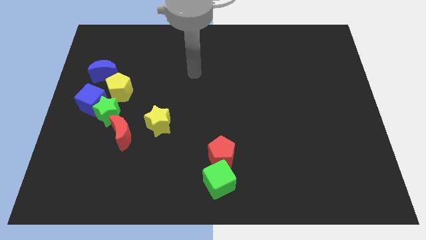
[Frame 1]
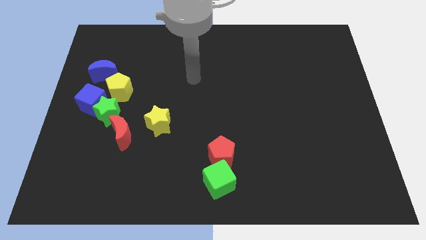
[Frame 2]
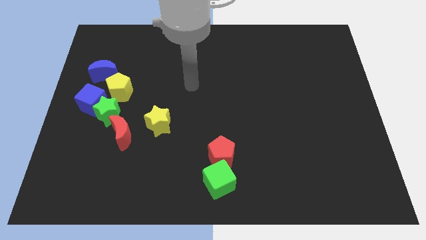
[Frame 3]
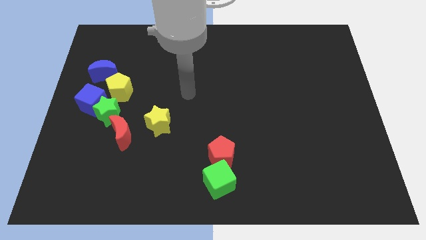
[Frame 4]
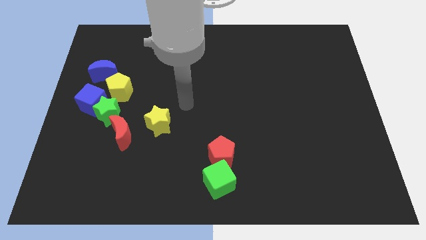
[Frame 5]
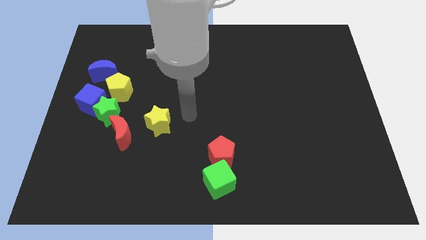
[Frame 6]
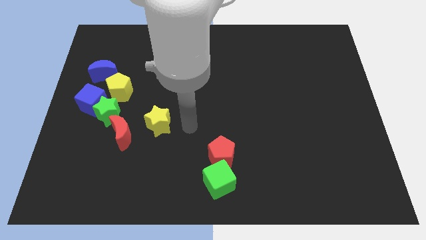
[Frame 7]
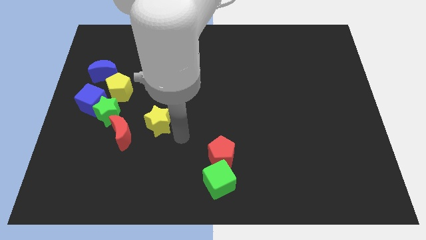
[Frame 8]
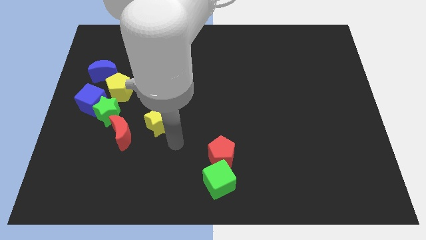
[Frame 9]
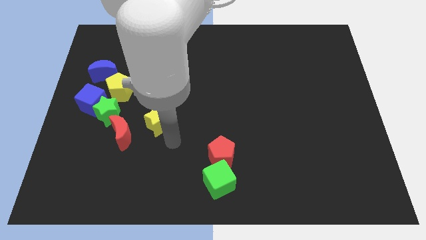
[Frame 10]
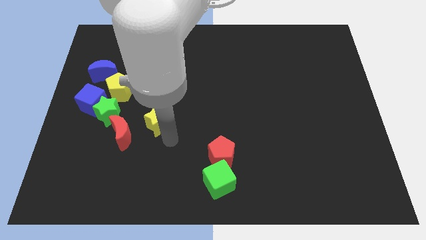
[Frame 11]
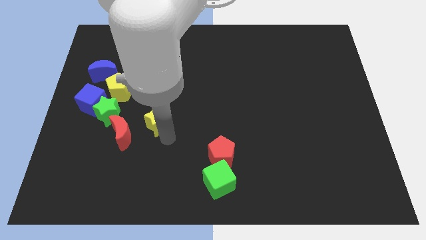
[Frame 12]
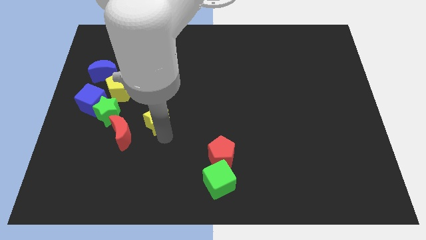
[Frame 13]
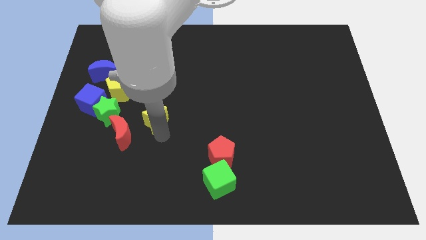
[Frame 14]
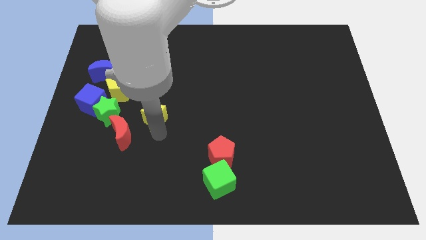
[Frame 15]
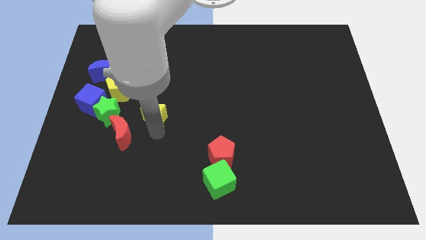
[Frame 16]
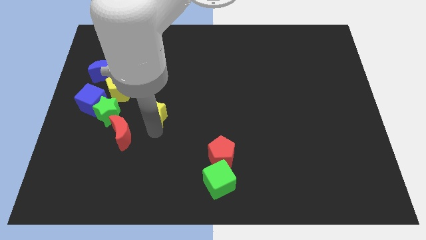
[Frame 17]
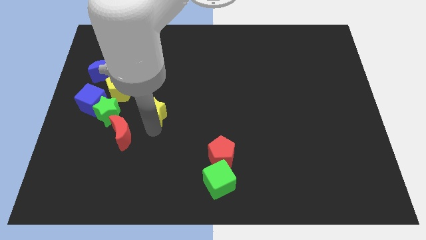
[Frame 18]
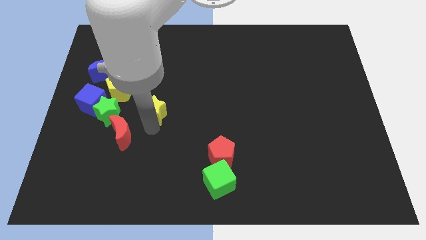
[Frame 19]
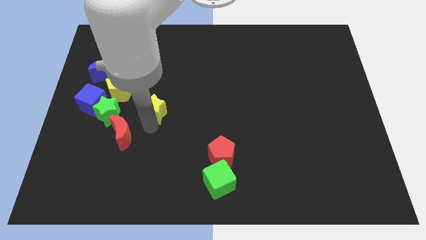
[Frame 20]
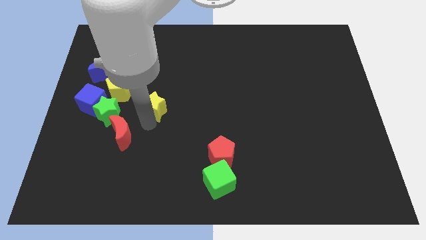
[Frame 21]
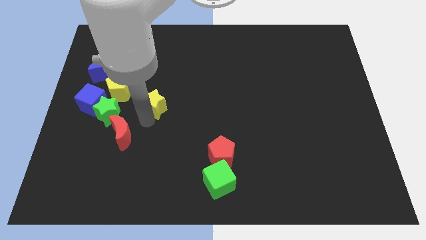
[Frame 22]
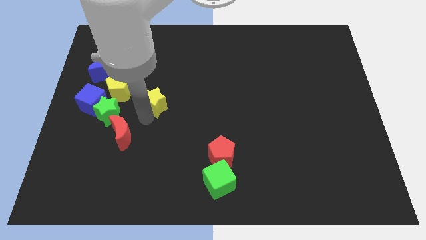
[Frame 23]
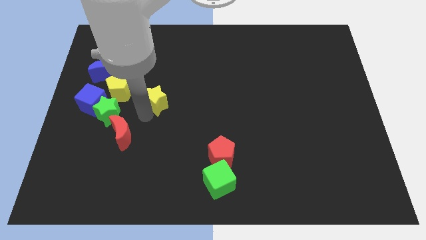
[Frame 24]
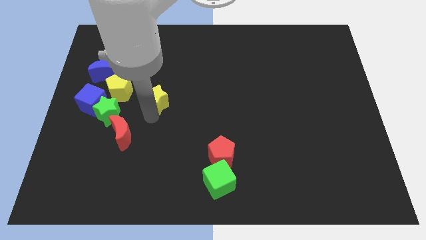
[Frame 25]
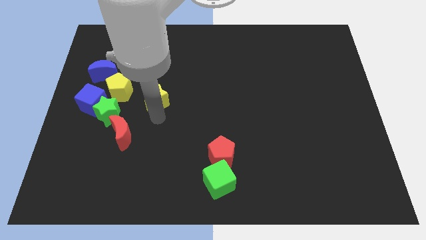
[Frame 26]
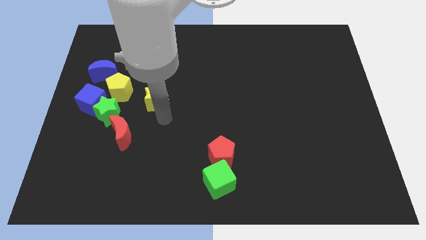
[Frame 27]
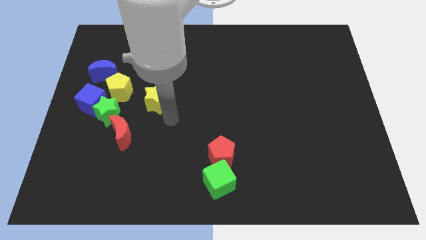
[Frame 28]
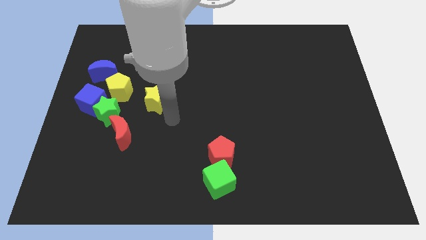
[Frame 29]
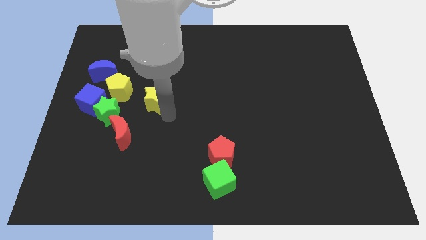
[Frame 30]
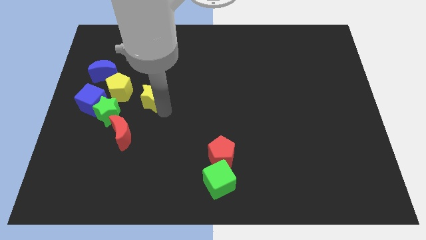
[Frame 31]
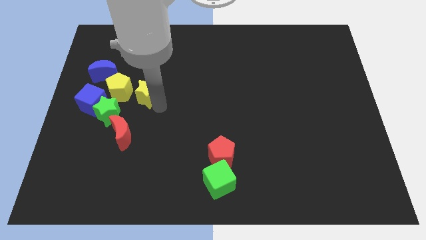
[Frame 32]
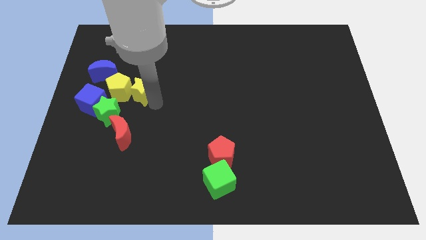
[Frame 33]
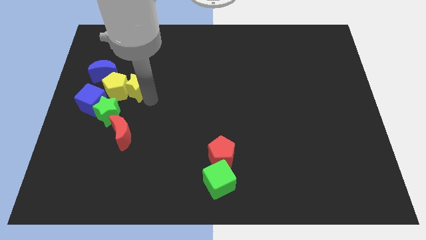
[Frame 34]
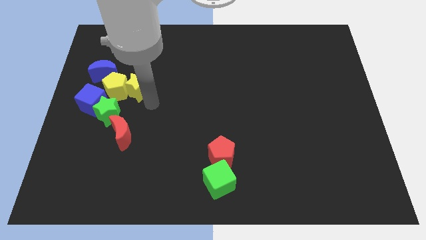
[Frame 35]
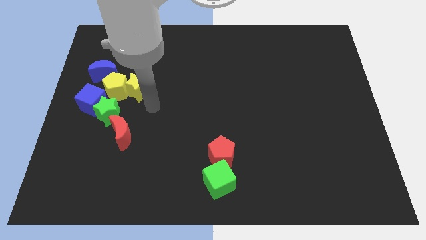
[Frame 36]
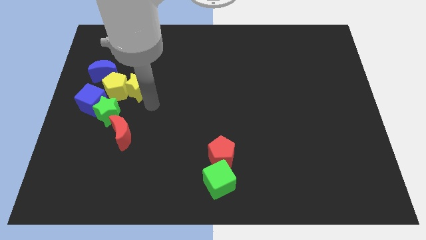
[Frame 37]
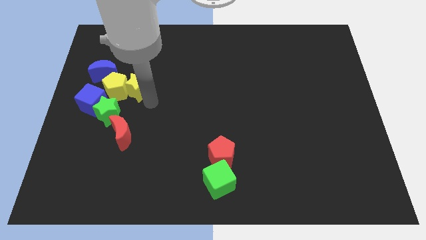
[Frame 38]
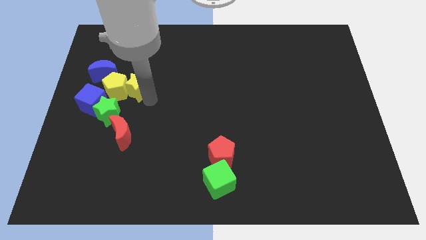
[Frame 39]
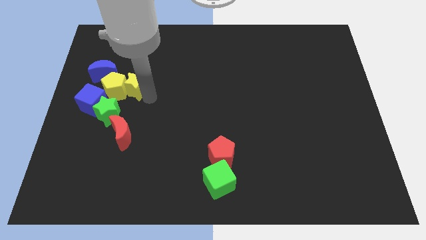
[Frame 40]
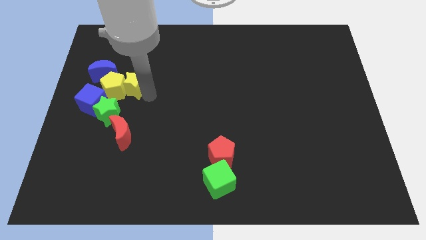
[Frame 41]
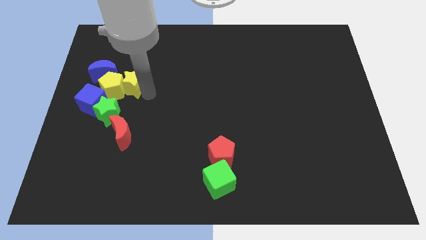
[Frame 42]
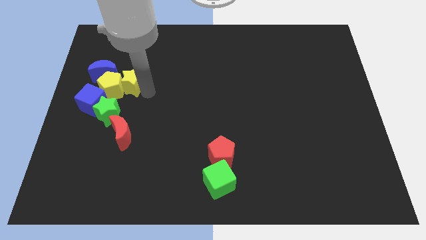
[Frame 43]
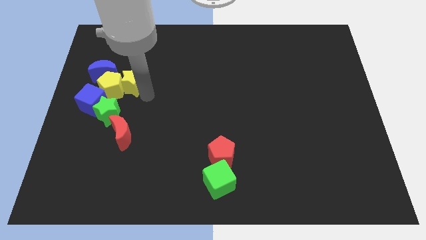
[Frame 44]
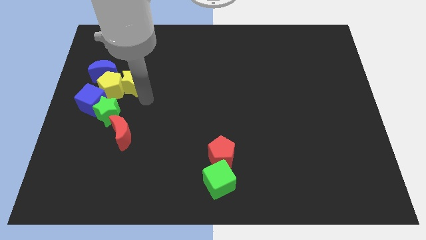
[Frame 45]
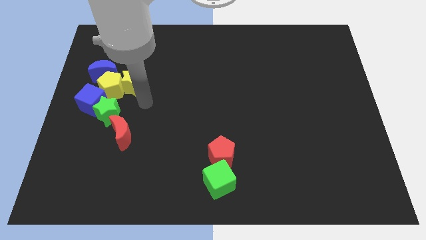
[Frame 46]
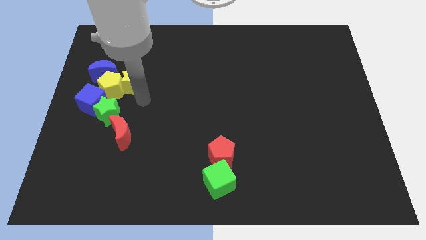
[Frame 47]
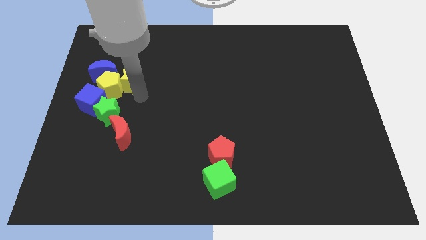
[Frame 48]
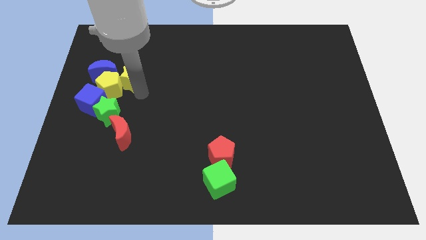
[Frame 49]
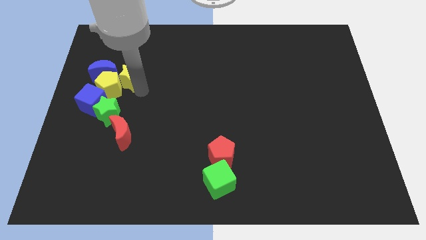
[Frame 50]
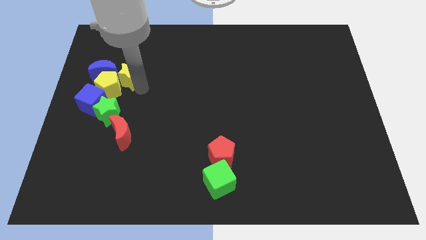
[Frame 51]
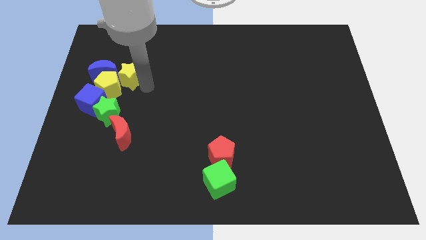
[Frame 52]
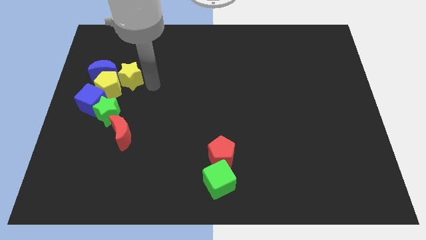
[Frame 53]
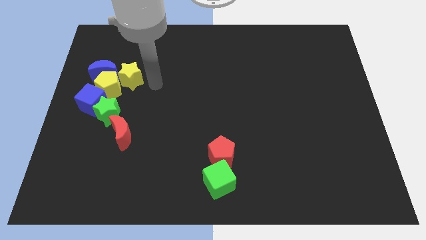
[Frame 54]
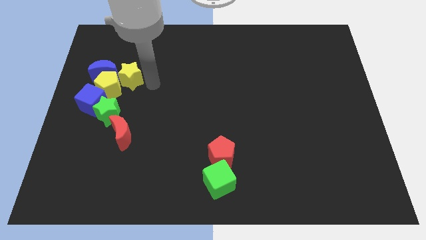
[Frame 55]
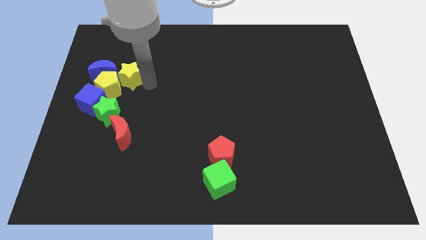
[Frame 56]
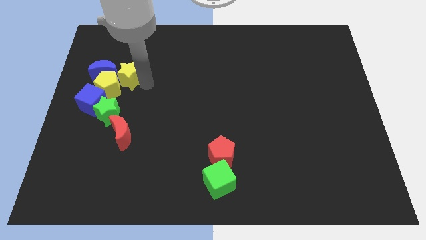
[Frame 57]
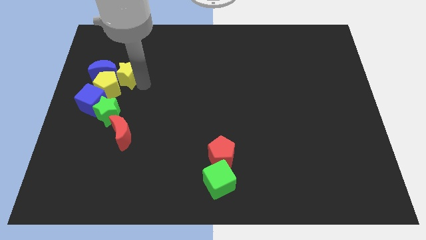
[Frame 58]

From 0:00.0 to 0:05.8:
slide the yellow star next to the blue moon

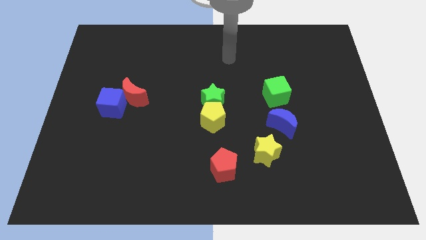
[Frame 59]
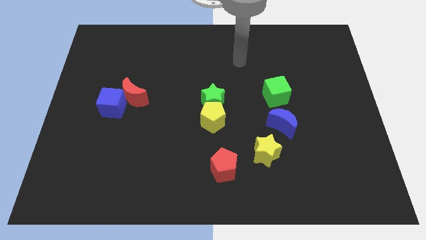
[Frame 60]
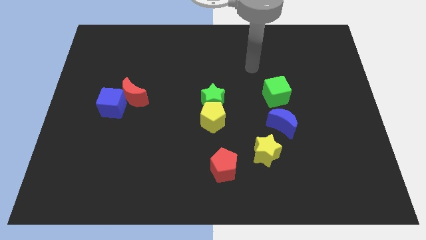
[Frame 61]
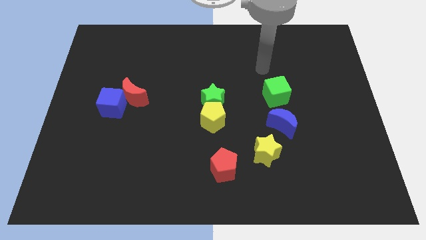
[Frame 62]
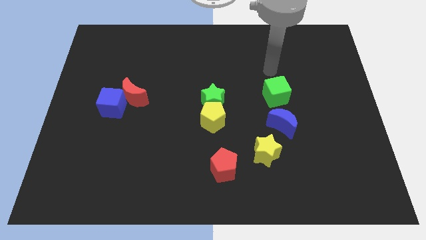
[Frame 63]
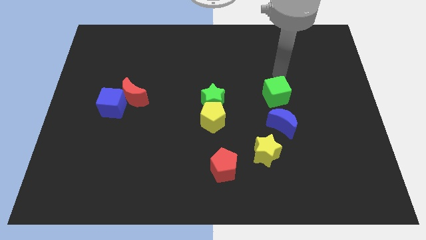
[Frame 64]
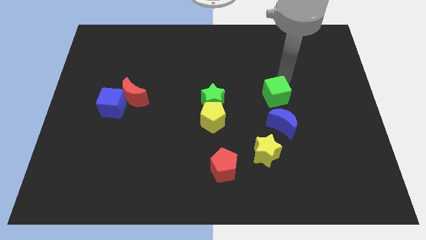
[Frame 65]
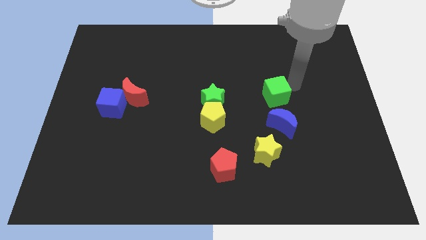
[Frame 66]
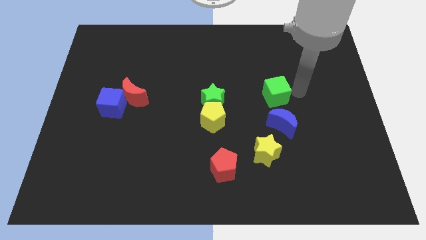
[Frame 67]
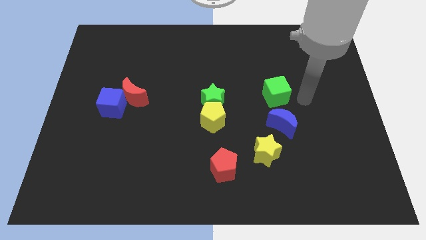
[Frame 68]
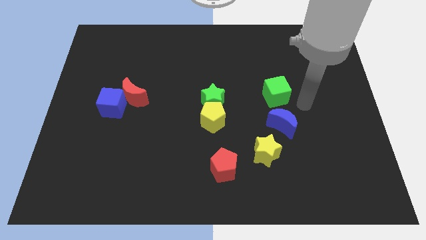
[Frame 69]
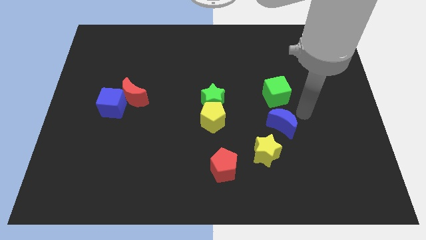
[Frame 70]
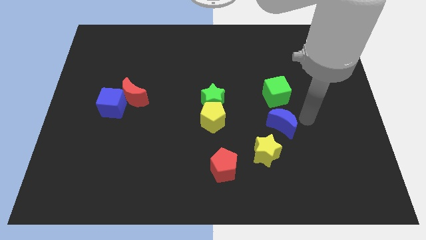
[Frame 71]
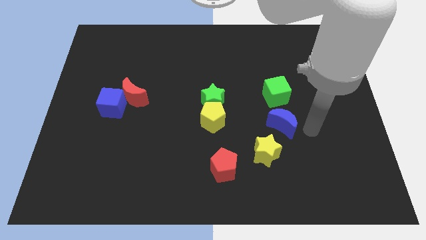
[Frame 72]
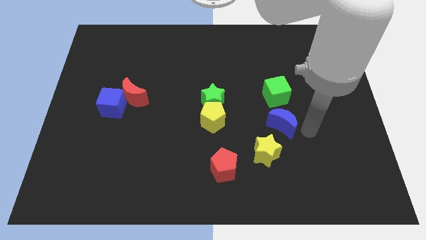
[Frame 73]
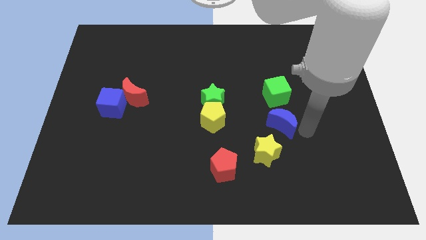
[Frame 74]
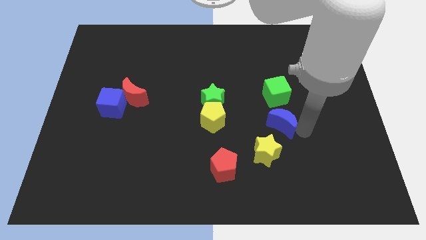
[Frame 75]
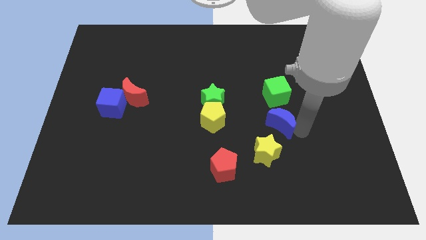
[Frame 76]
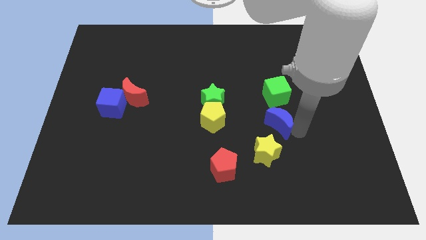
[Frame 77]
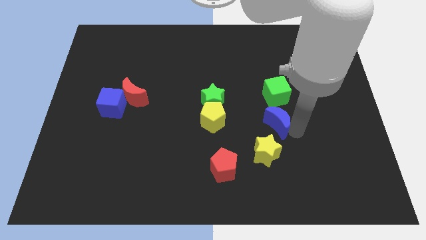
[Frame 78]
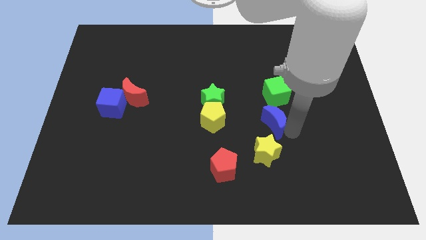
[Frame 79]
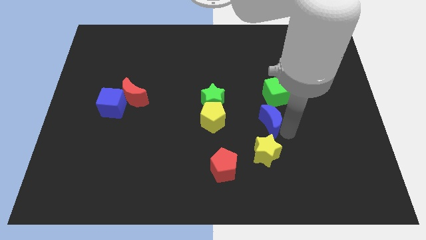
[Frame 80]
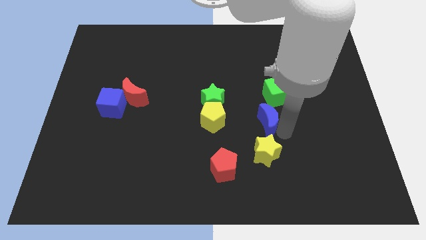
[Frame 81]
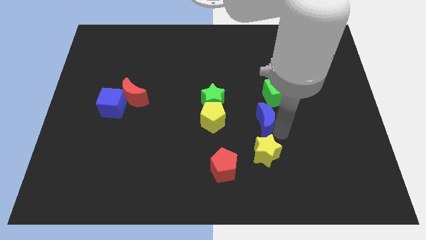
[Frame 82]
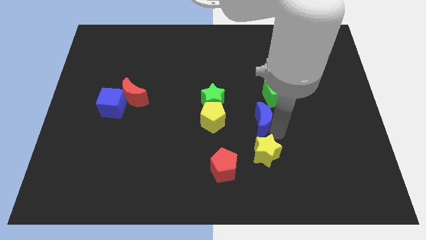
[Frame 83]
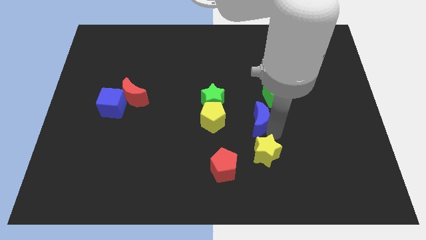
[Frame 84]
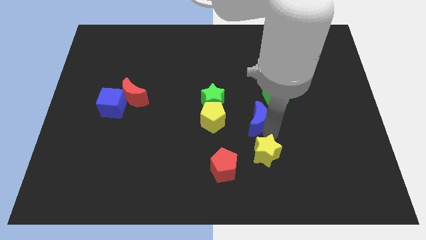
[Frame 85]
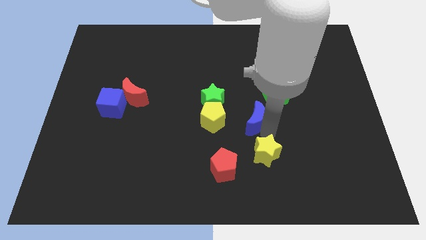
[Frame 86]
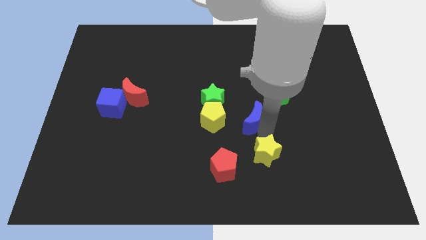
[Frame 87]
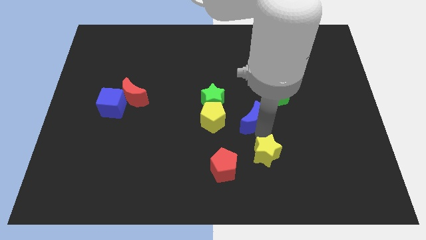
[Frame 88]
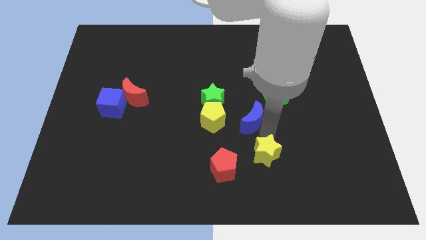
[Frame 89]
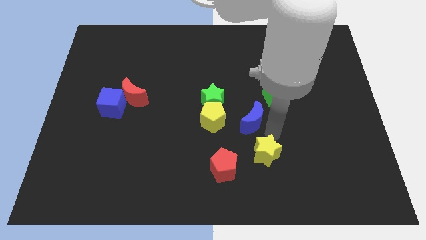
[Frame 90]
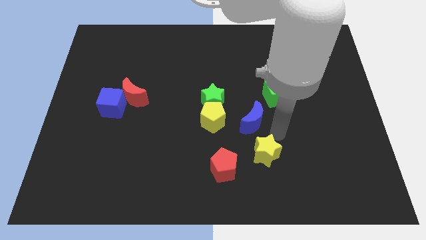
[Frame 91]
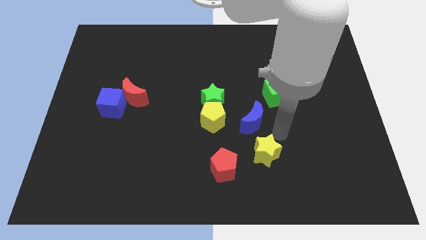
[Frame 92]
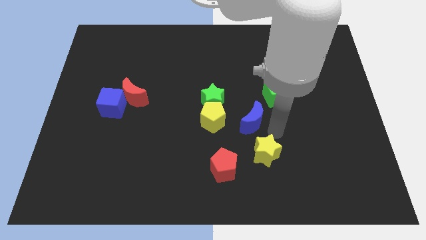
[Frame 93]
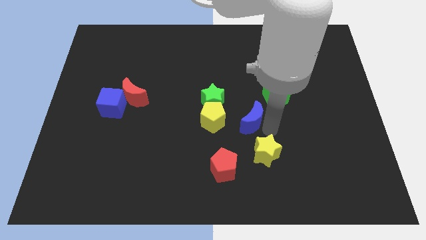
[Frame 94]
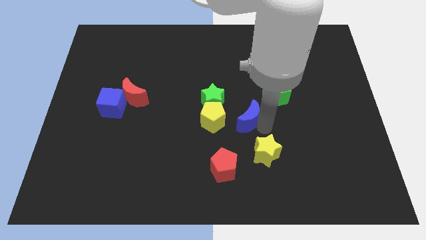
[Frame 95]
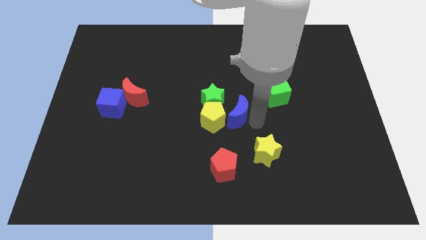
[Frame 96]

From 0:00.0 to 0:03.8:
put the blue moon to the yellow pentagon
